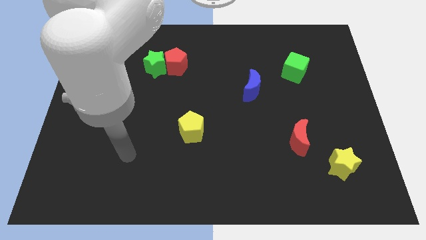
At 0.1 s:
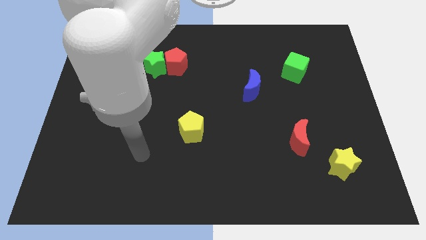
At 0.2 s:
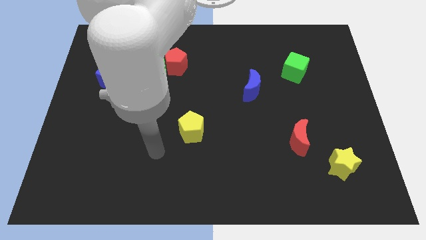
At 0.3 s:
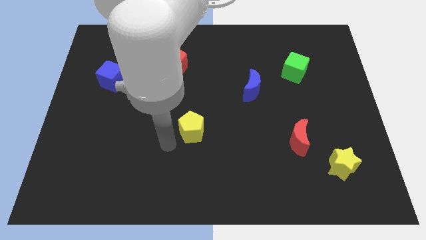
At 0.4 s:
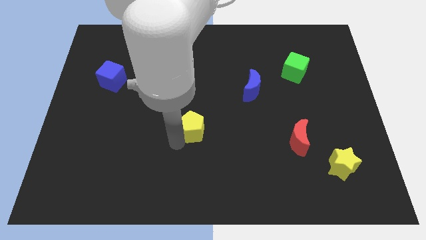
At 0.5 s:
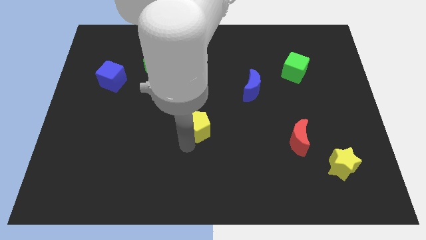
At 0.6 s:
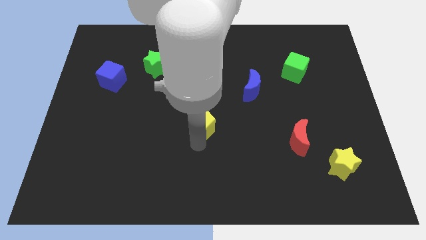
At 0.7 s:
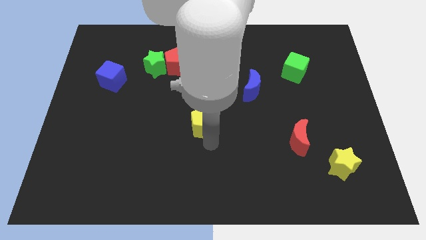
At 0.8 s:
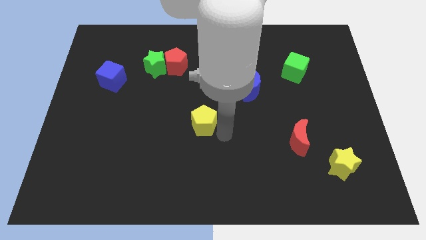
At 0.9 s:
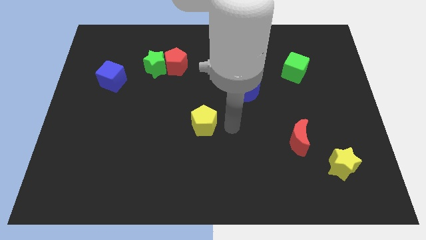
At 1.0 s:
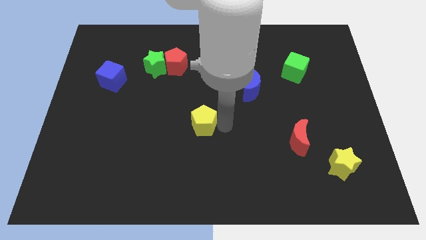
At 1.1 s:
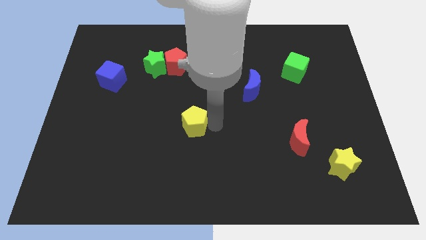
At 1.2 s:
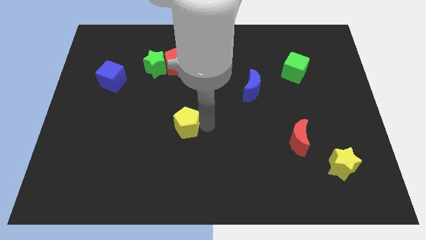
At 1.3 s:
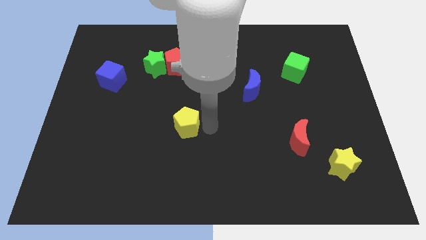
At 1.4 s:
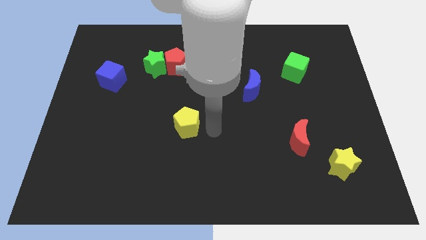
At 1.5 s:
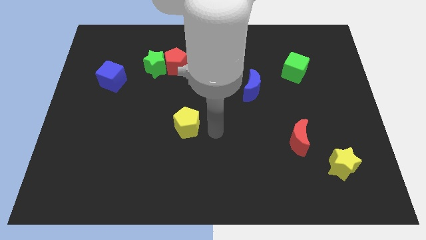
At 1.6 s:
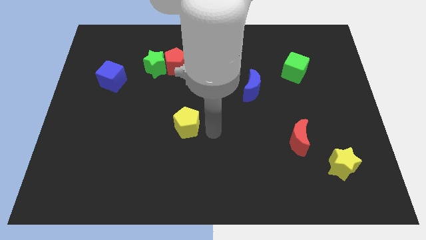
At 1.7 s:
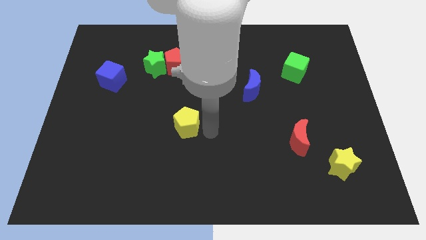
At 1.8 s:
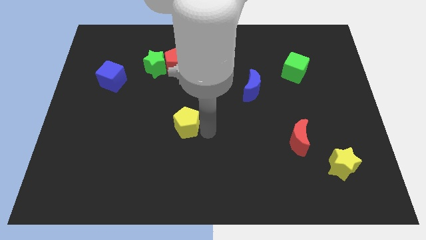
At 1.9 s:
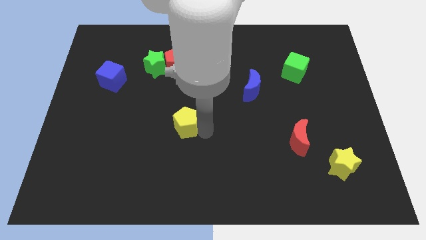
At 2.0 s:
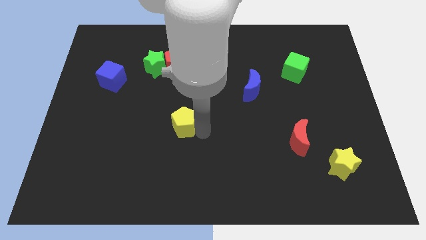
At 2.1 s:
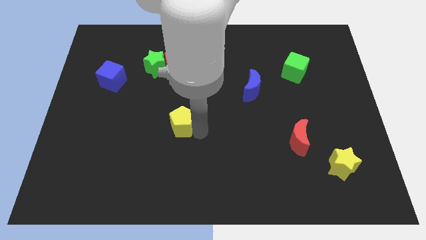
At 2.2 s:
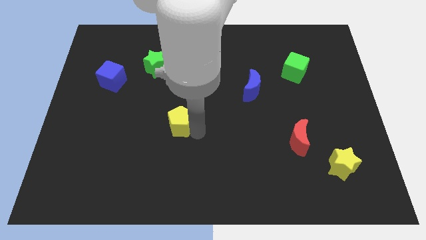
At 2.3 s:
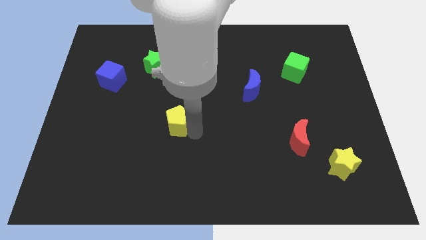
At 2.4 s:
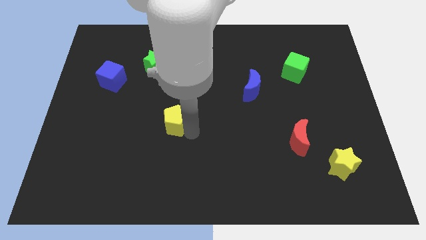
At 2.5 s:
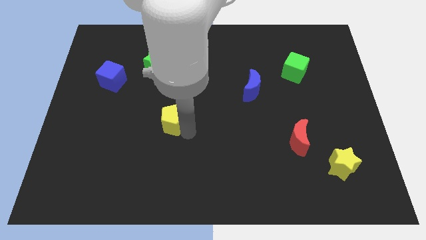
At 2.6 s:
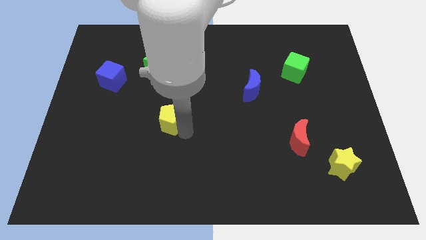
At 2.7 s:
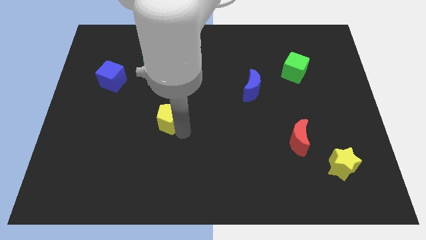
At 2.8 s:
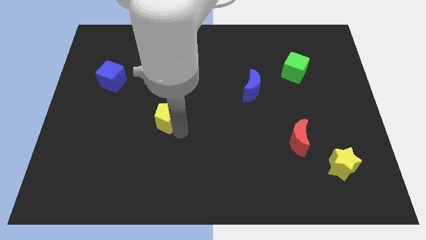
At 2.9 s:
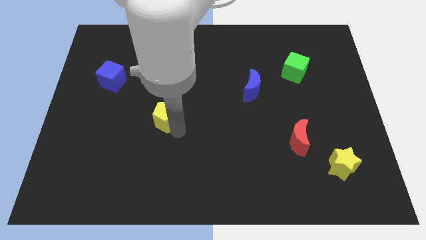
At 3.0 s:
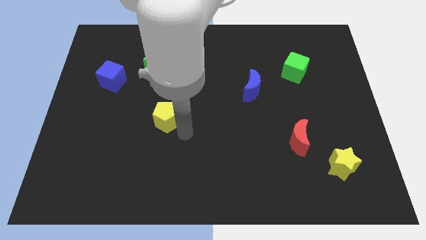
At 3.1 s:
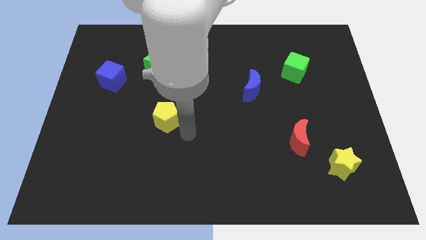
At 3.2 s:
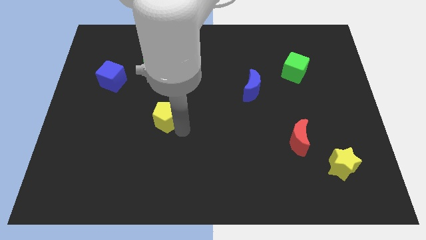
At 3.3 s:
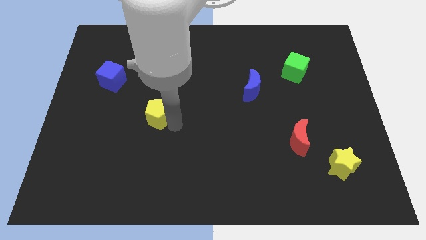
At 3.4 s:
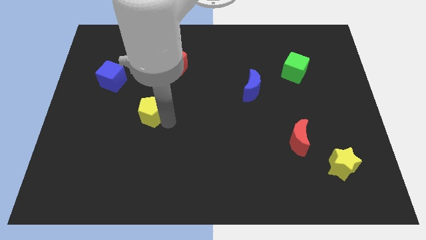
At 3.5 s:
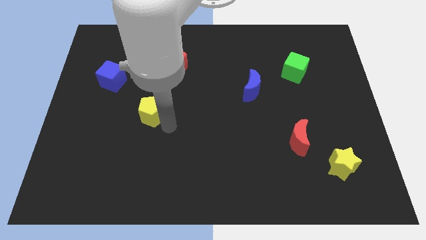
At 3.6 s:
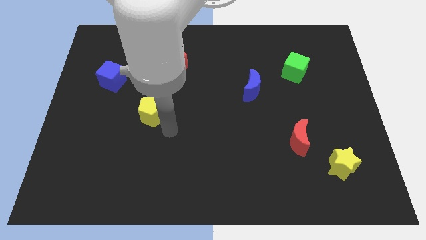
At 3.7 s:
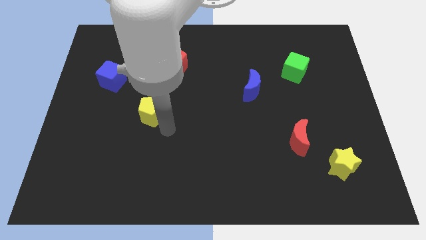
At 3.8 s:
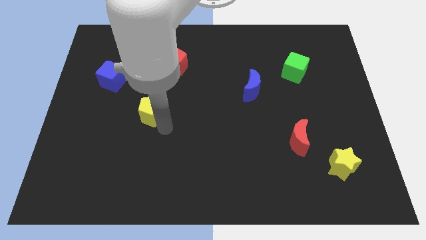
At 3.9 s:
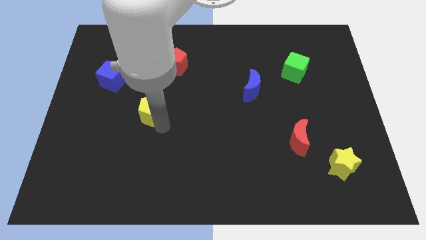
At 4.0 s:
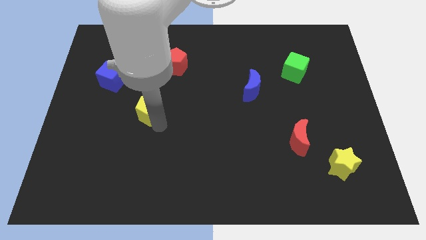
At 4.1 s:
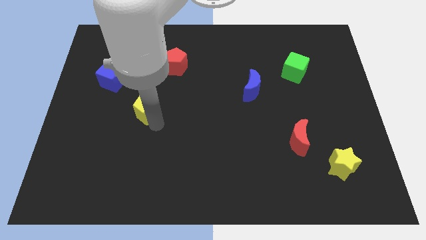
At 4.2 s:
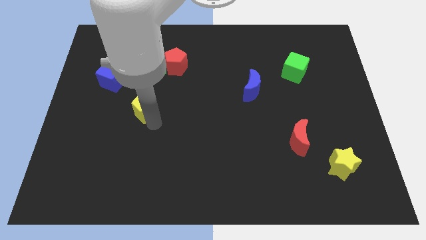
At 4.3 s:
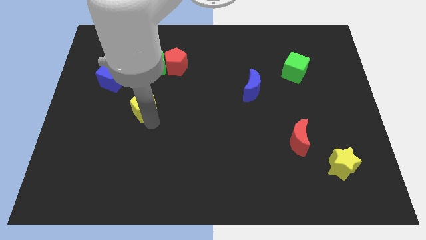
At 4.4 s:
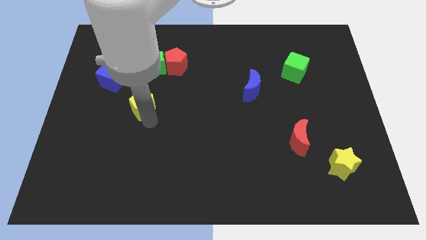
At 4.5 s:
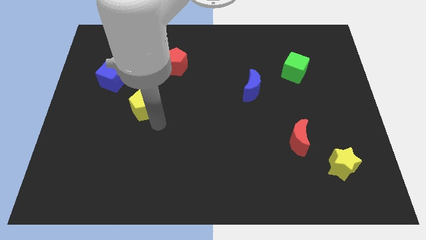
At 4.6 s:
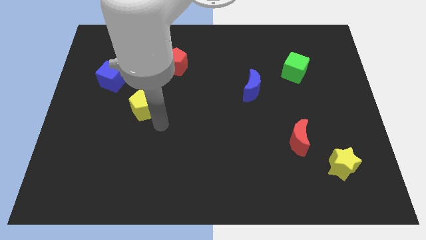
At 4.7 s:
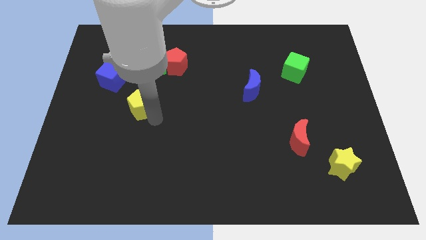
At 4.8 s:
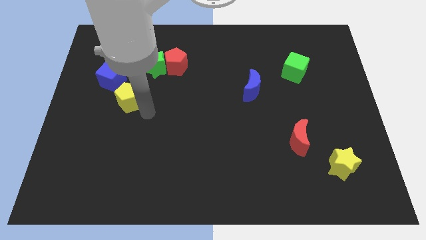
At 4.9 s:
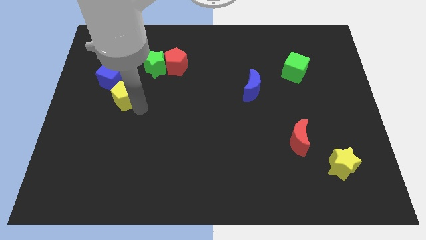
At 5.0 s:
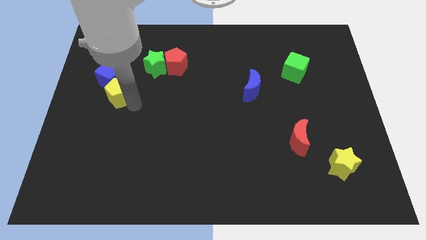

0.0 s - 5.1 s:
push the yellow pentagon close to the blue cube

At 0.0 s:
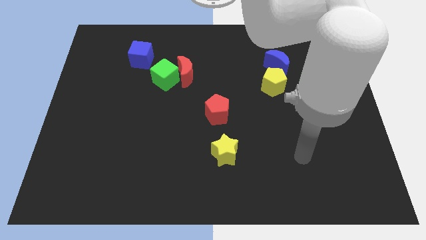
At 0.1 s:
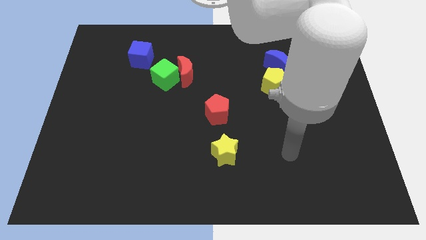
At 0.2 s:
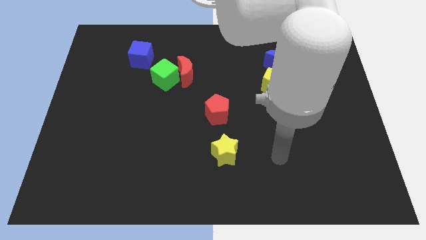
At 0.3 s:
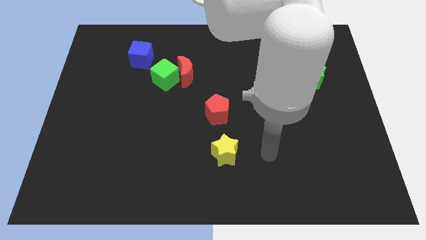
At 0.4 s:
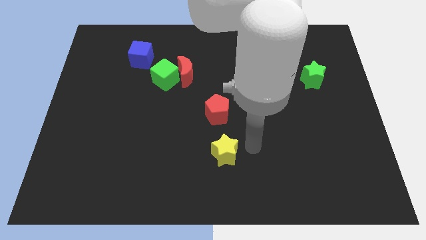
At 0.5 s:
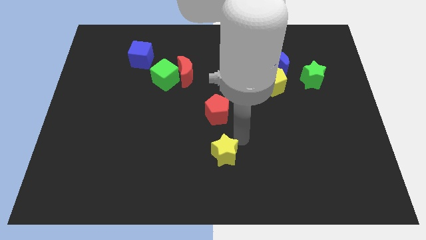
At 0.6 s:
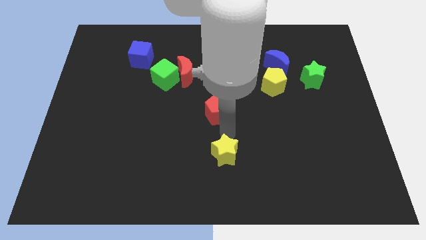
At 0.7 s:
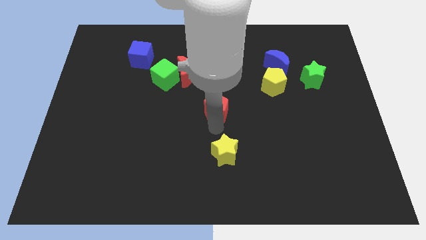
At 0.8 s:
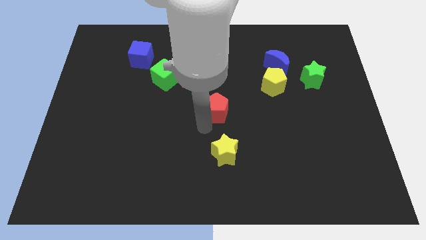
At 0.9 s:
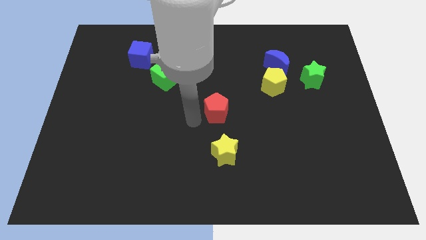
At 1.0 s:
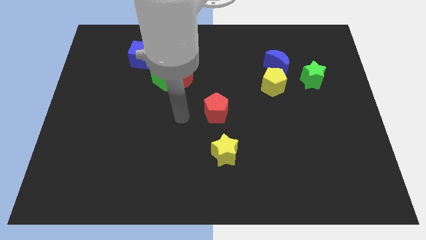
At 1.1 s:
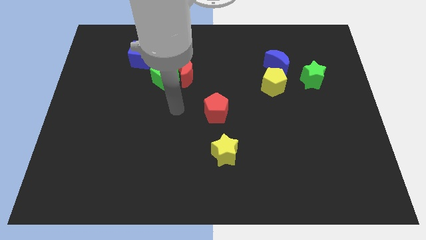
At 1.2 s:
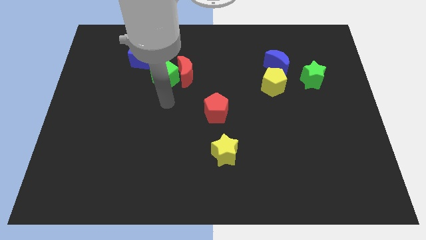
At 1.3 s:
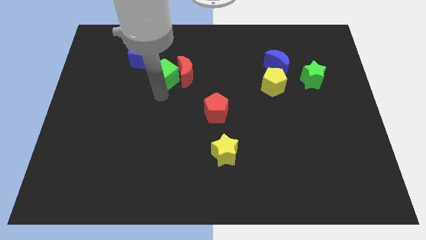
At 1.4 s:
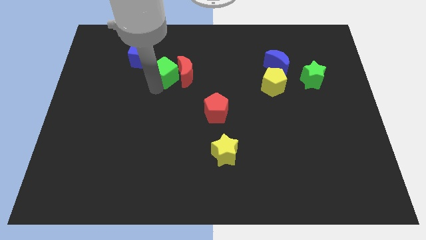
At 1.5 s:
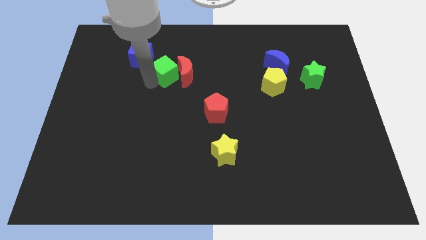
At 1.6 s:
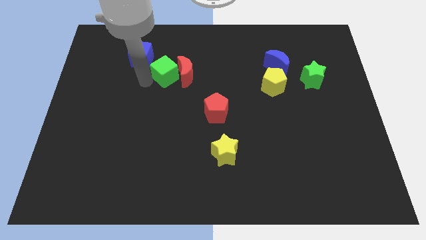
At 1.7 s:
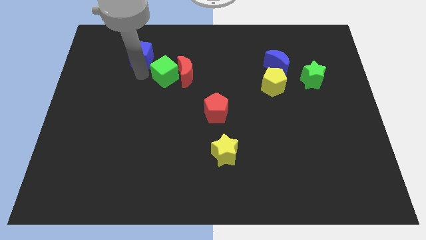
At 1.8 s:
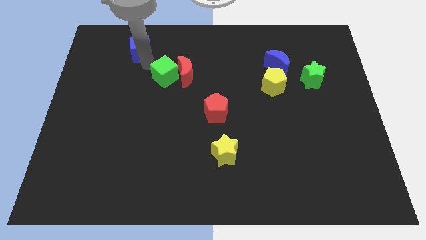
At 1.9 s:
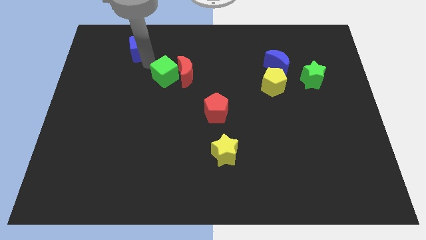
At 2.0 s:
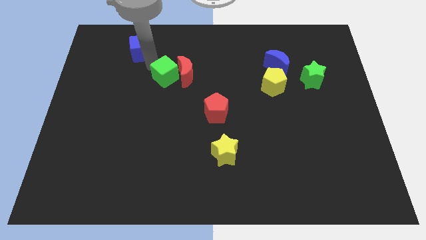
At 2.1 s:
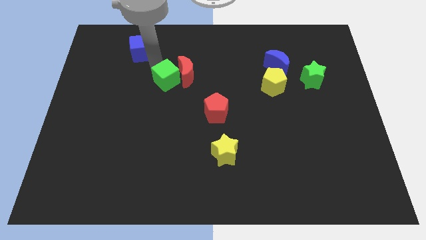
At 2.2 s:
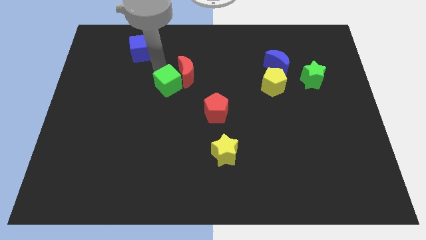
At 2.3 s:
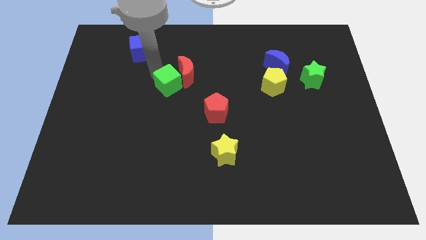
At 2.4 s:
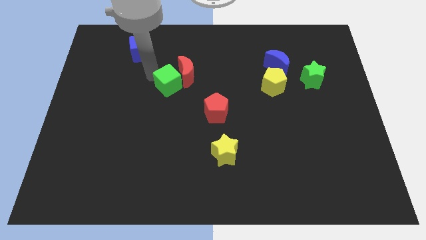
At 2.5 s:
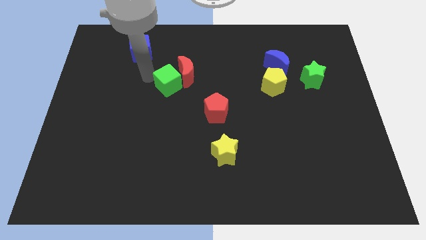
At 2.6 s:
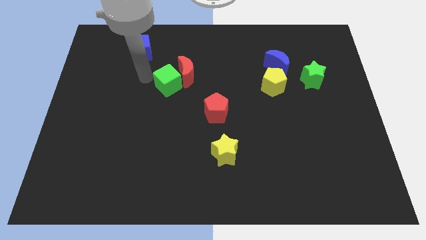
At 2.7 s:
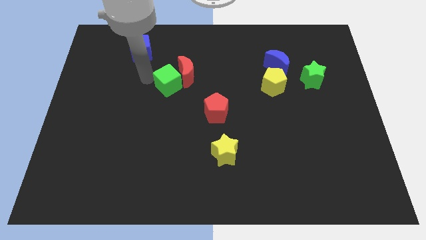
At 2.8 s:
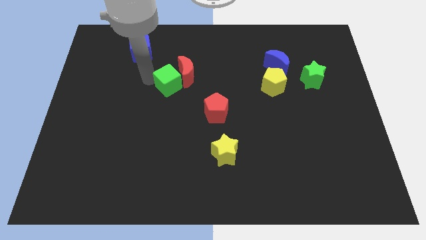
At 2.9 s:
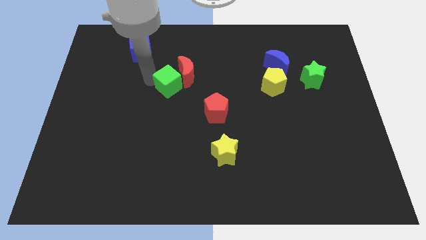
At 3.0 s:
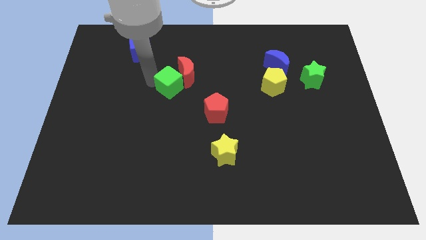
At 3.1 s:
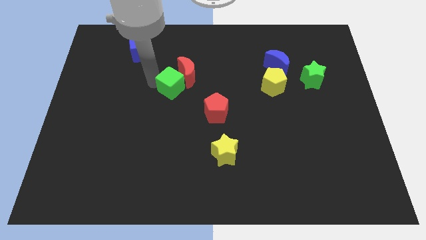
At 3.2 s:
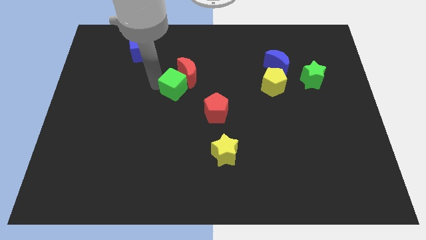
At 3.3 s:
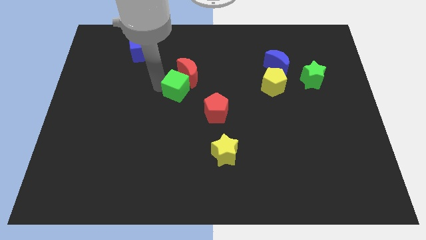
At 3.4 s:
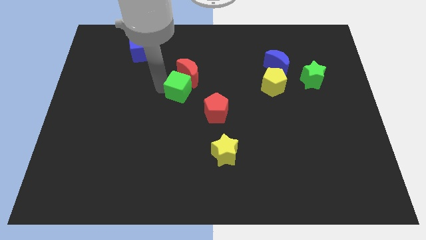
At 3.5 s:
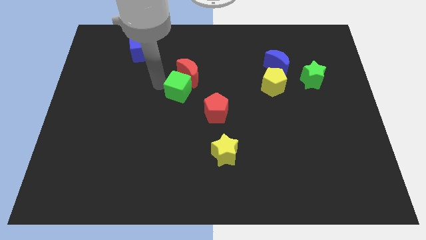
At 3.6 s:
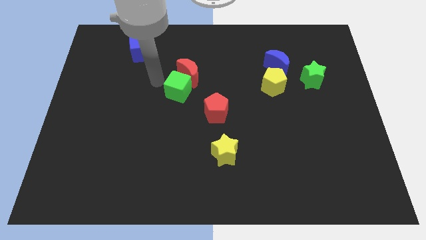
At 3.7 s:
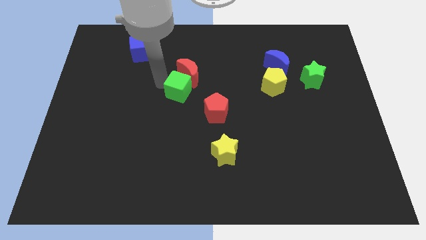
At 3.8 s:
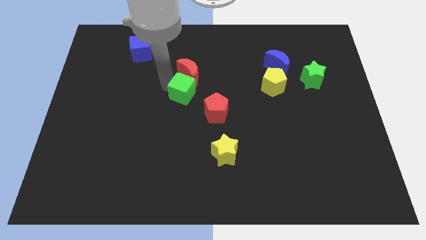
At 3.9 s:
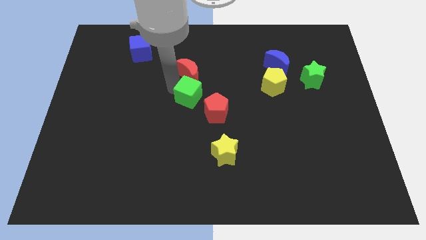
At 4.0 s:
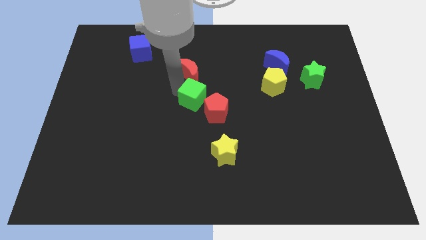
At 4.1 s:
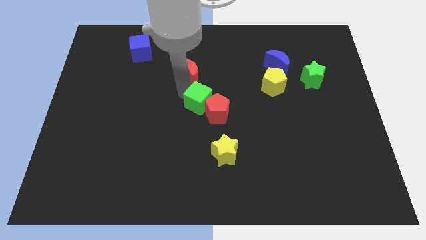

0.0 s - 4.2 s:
push the green cube close to the red pentagon
